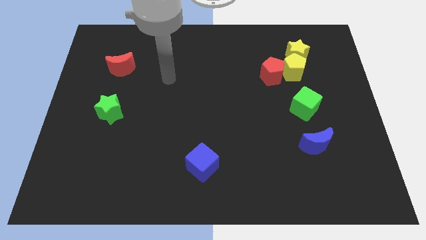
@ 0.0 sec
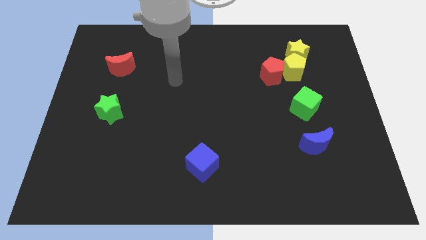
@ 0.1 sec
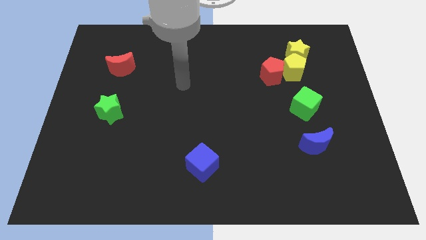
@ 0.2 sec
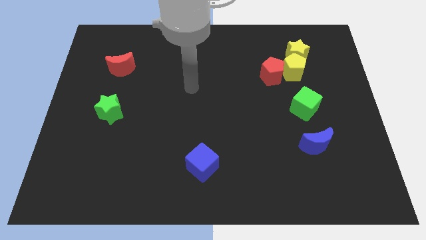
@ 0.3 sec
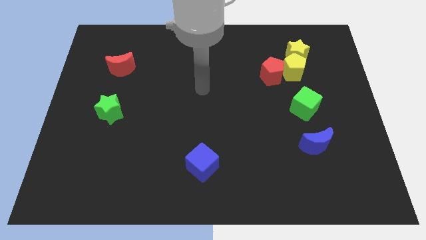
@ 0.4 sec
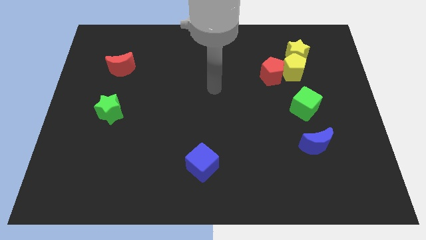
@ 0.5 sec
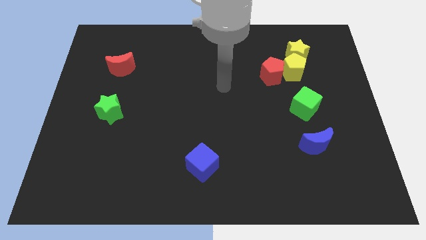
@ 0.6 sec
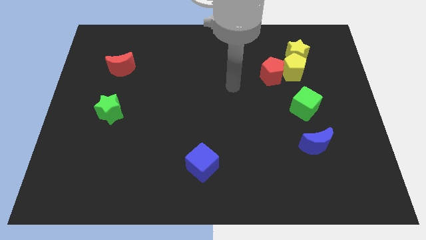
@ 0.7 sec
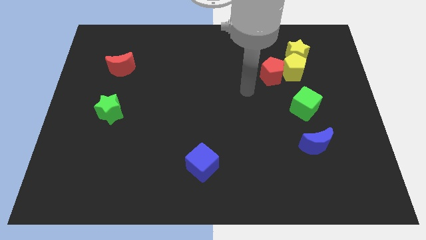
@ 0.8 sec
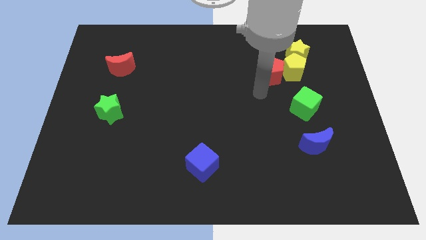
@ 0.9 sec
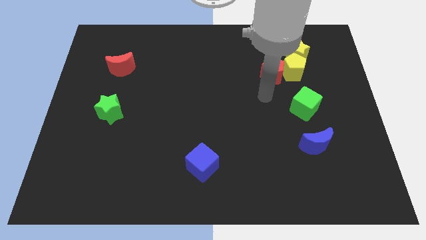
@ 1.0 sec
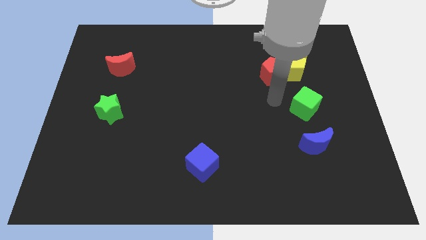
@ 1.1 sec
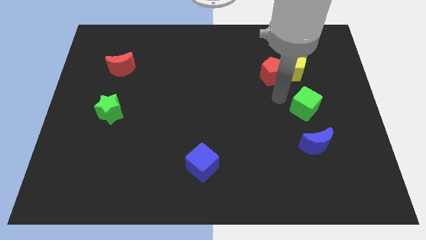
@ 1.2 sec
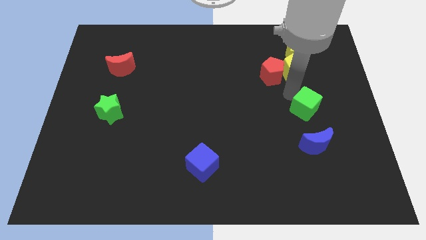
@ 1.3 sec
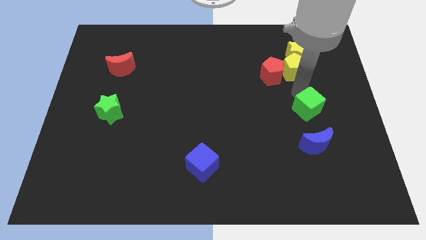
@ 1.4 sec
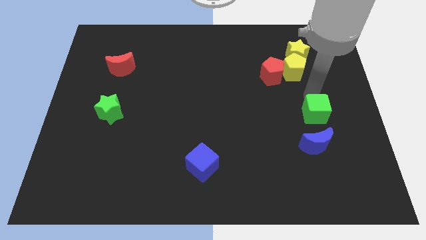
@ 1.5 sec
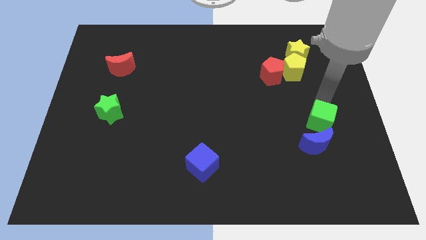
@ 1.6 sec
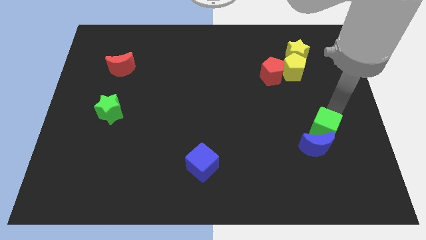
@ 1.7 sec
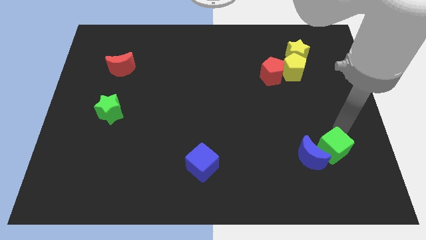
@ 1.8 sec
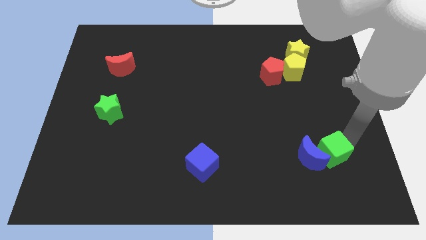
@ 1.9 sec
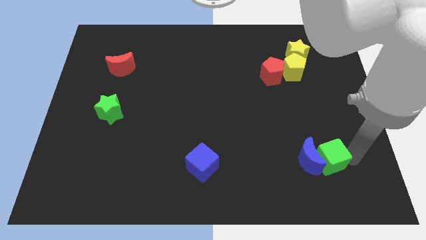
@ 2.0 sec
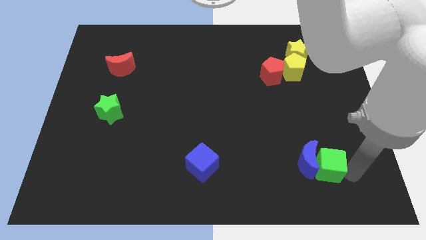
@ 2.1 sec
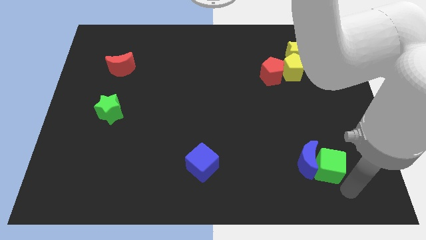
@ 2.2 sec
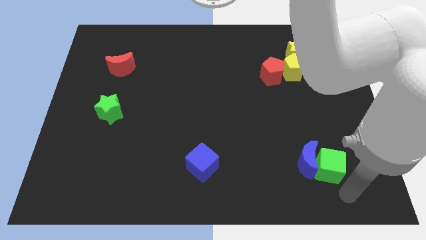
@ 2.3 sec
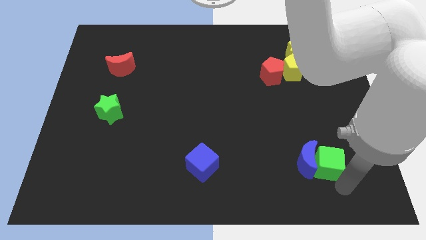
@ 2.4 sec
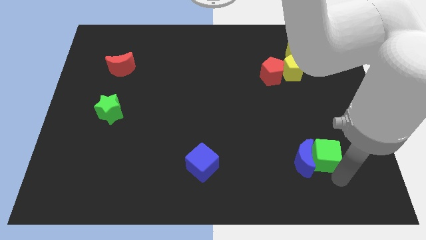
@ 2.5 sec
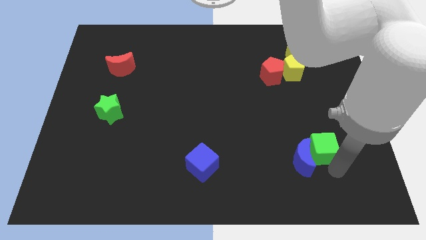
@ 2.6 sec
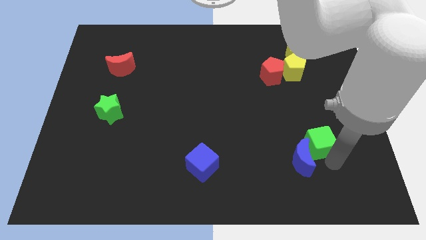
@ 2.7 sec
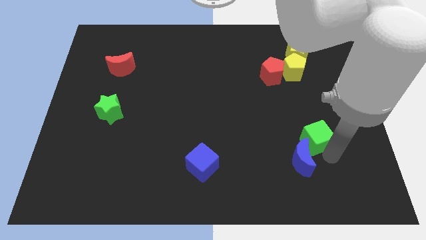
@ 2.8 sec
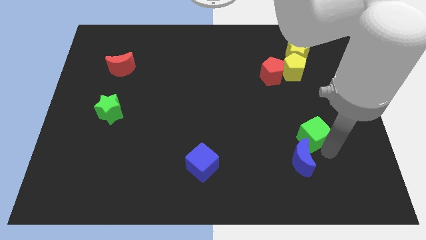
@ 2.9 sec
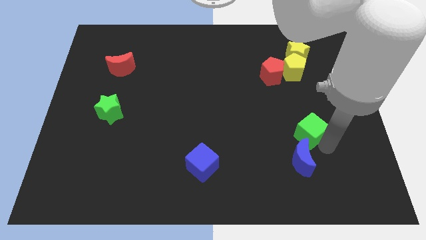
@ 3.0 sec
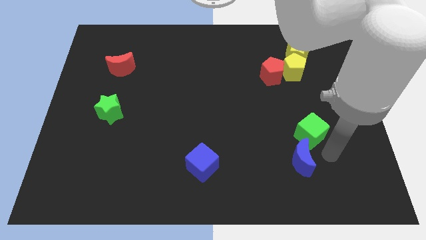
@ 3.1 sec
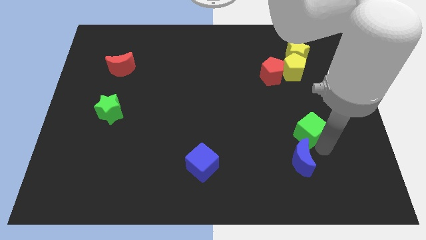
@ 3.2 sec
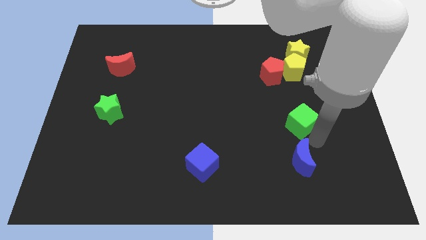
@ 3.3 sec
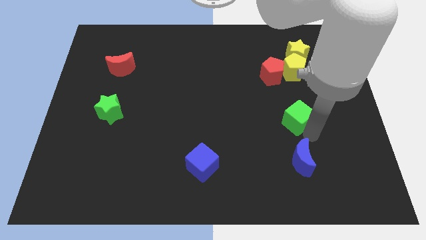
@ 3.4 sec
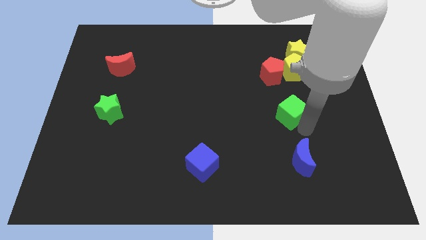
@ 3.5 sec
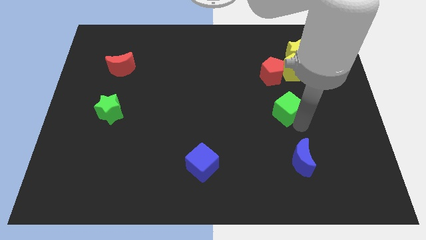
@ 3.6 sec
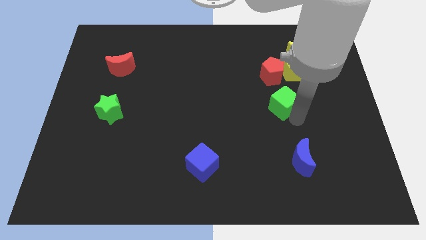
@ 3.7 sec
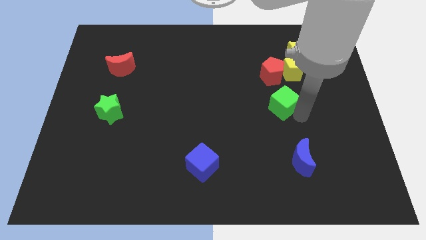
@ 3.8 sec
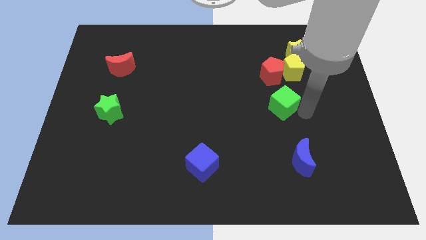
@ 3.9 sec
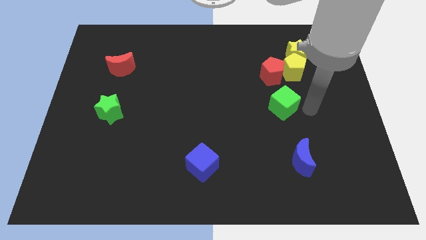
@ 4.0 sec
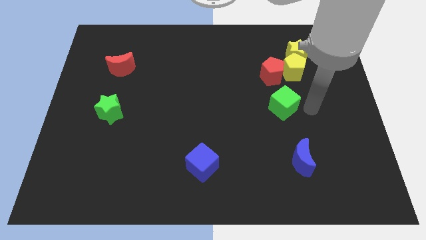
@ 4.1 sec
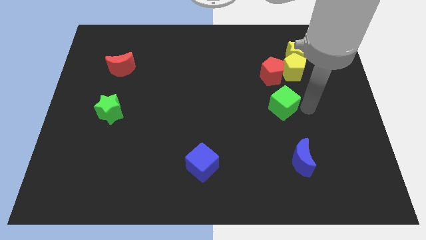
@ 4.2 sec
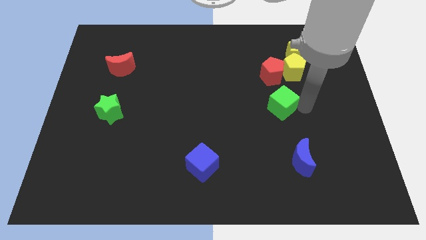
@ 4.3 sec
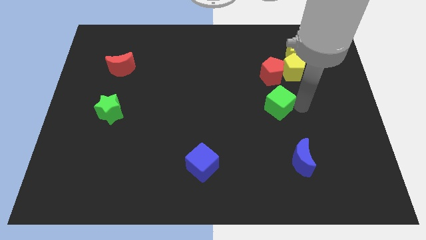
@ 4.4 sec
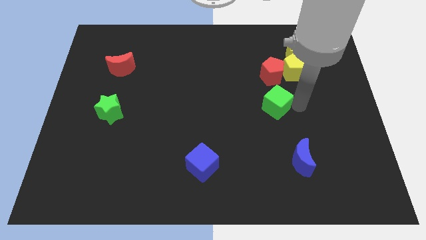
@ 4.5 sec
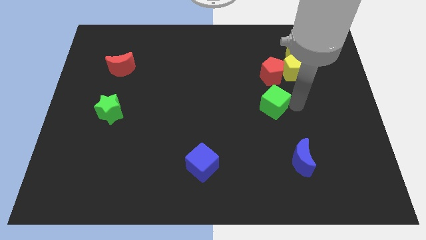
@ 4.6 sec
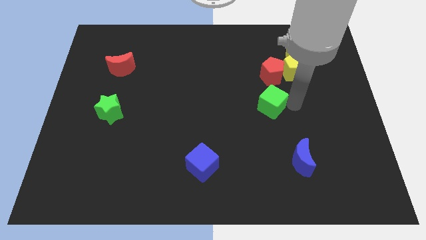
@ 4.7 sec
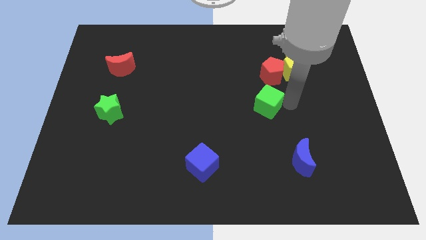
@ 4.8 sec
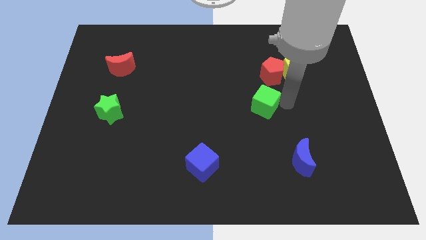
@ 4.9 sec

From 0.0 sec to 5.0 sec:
slide the green cube to the center

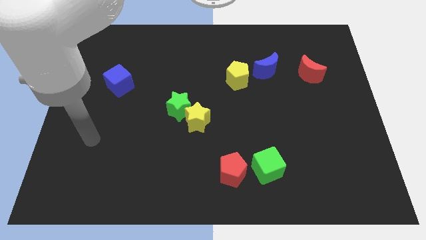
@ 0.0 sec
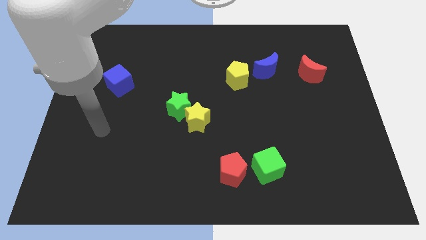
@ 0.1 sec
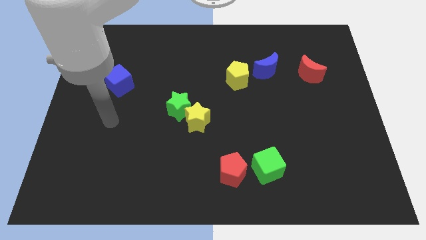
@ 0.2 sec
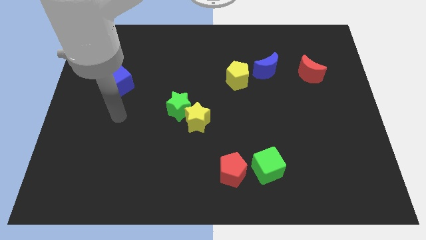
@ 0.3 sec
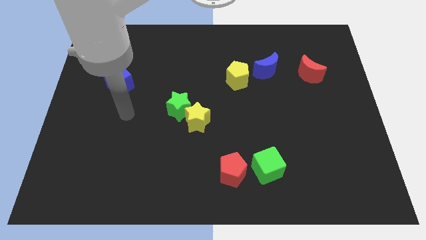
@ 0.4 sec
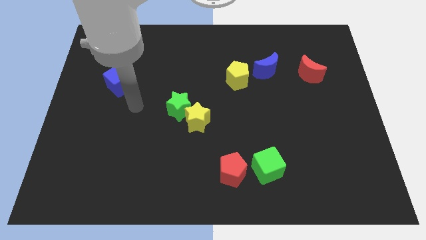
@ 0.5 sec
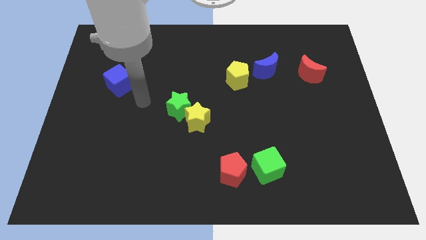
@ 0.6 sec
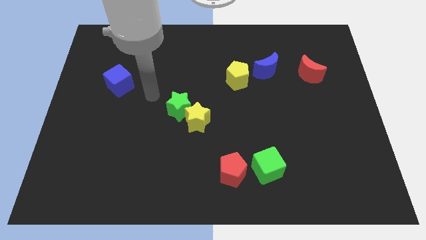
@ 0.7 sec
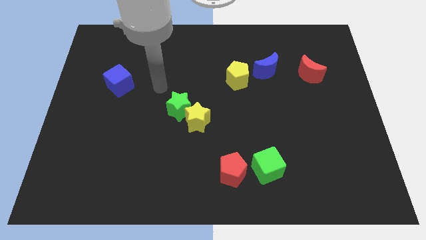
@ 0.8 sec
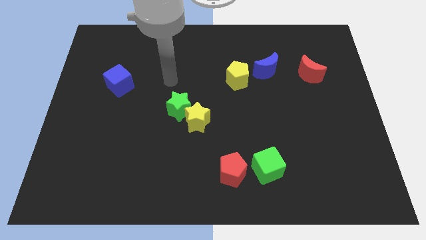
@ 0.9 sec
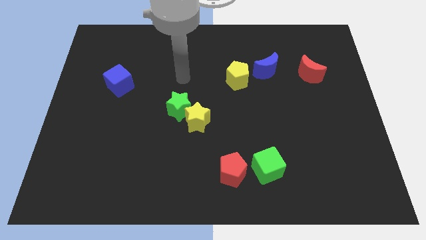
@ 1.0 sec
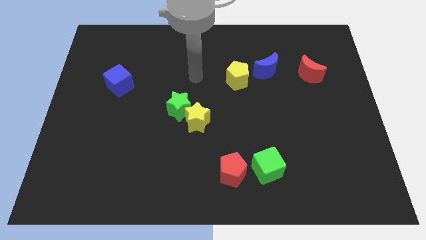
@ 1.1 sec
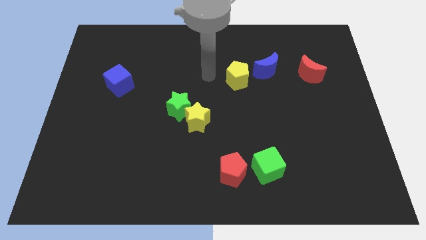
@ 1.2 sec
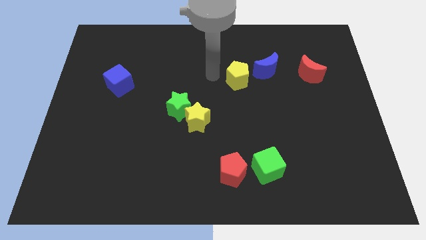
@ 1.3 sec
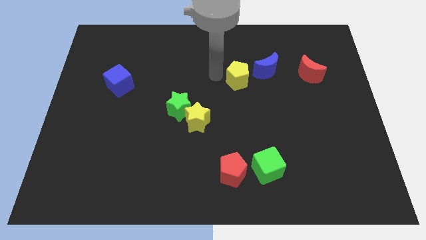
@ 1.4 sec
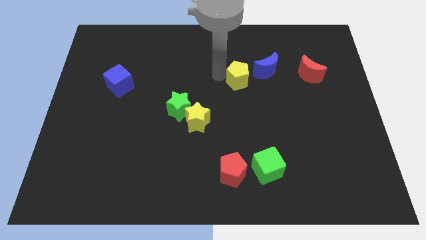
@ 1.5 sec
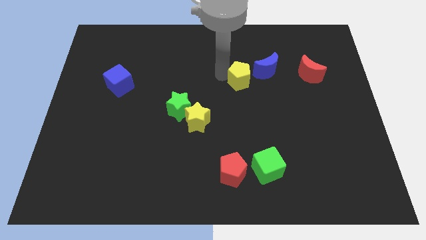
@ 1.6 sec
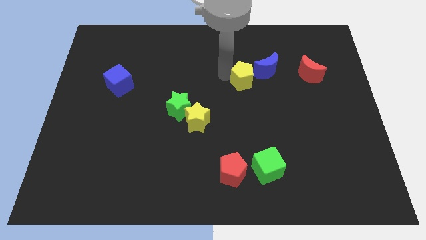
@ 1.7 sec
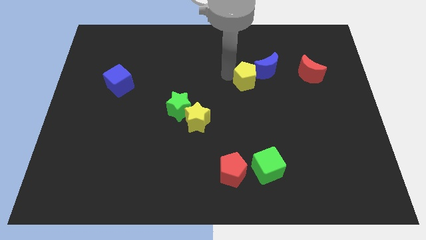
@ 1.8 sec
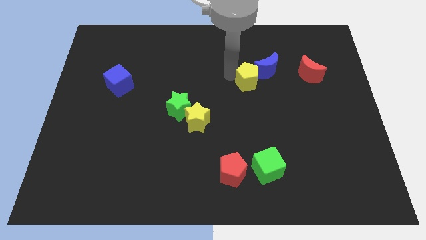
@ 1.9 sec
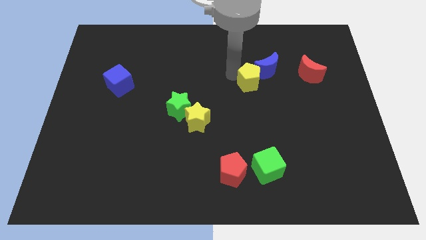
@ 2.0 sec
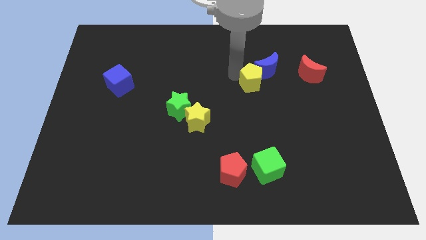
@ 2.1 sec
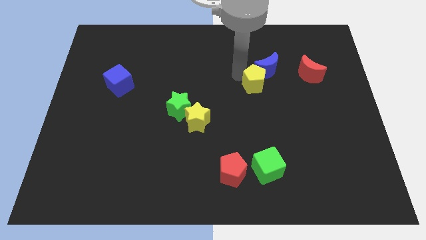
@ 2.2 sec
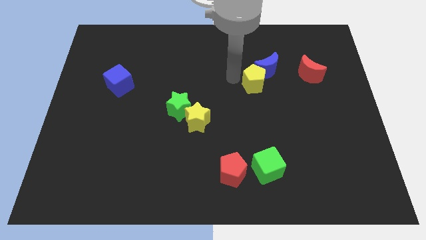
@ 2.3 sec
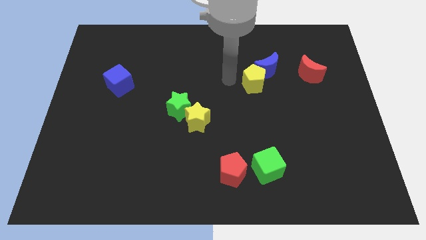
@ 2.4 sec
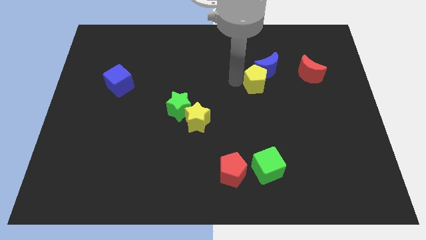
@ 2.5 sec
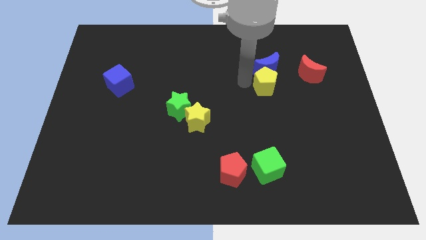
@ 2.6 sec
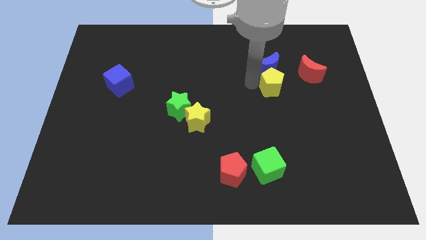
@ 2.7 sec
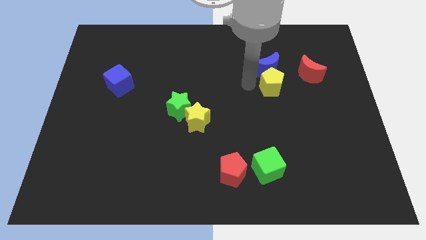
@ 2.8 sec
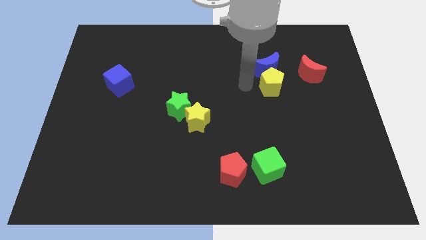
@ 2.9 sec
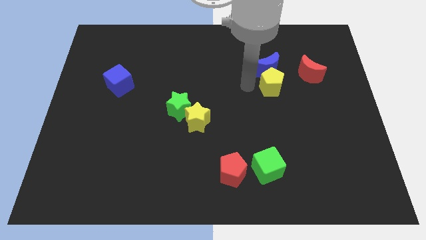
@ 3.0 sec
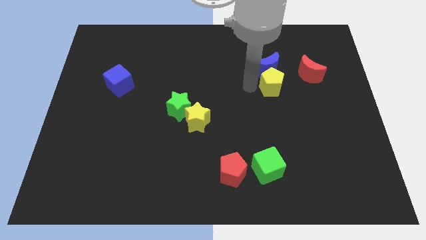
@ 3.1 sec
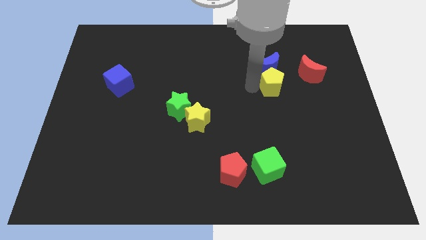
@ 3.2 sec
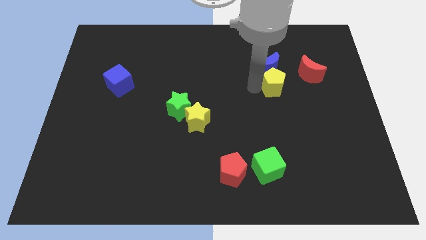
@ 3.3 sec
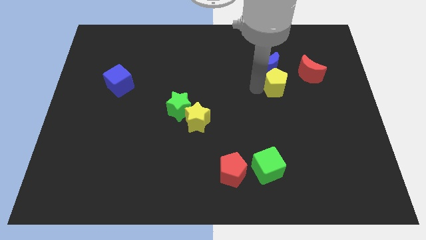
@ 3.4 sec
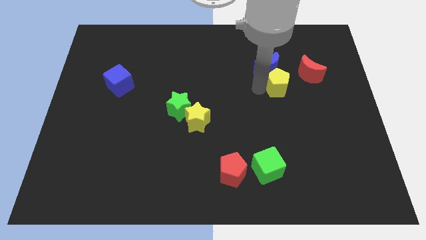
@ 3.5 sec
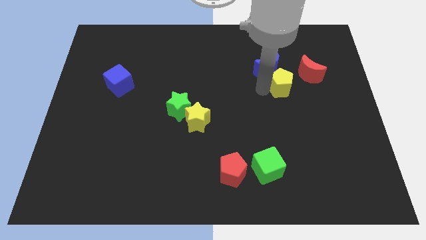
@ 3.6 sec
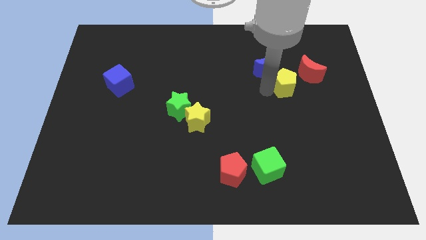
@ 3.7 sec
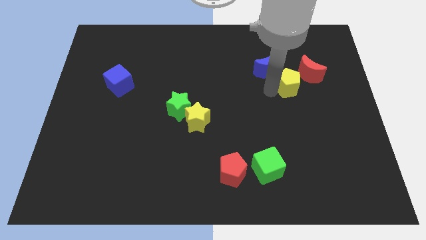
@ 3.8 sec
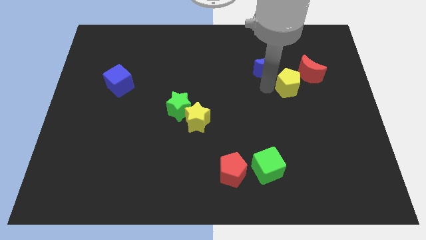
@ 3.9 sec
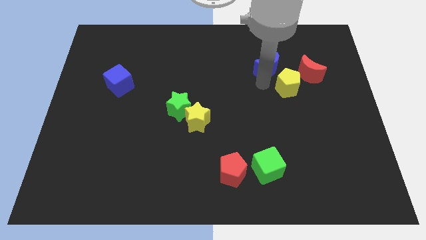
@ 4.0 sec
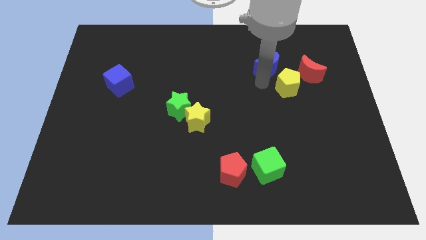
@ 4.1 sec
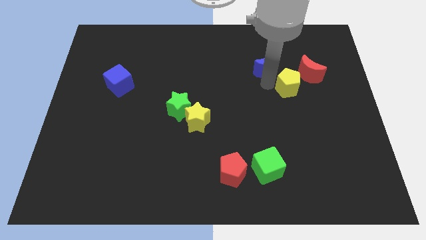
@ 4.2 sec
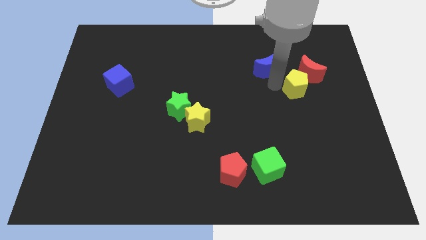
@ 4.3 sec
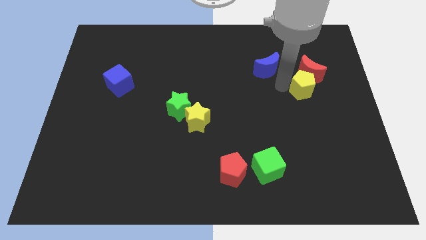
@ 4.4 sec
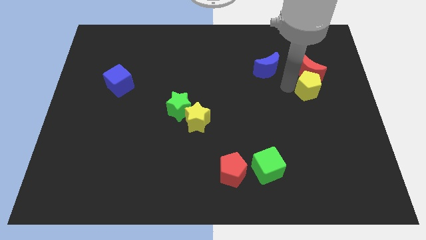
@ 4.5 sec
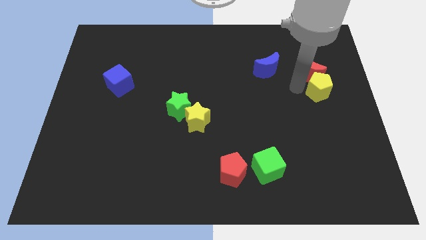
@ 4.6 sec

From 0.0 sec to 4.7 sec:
move the yellow pentagon to the right side
